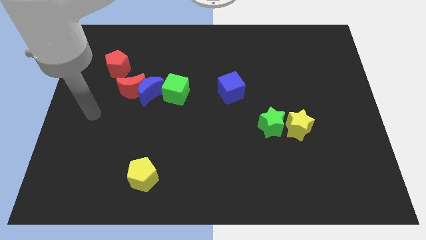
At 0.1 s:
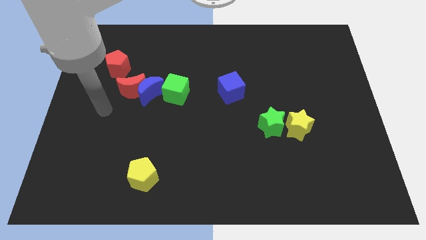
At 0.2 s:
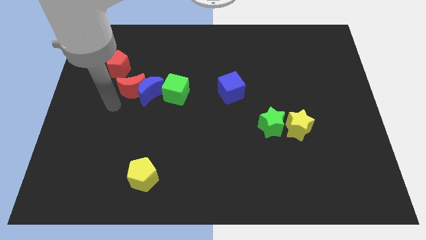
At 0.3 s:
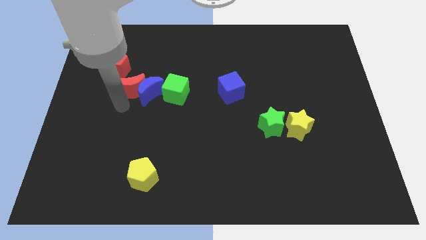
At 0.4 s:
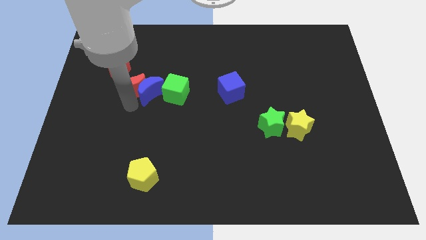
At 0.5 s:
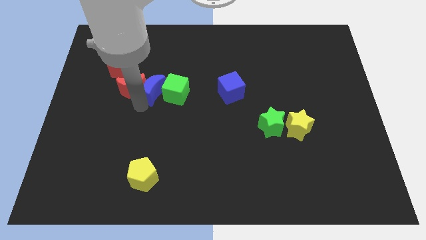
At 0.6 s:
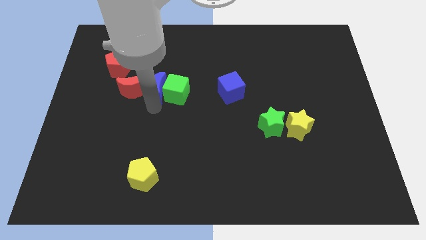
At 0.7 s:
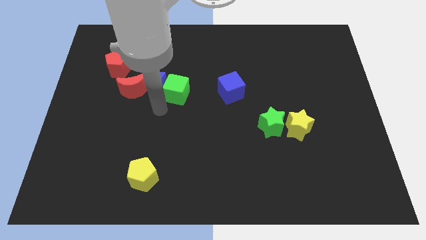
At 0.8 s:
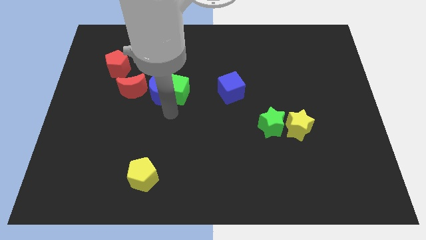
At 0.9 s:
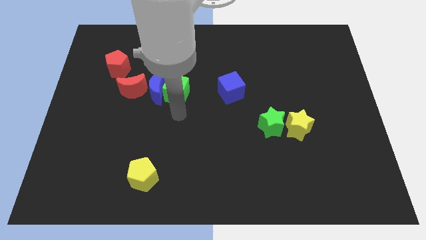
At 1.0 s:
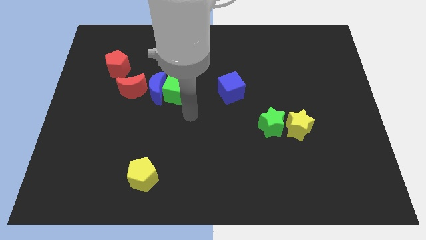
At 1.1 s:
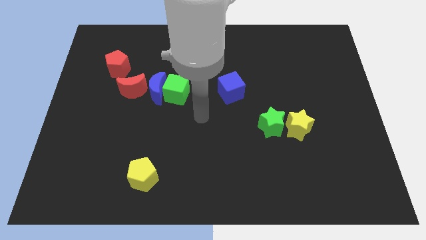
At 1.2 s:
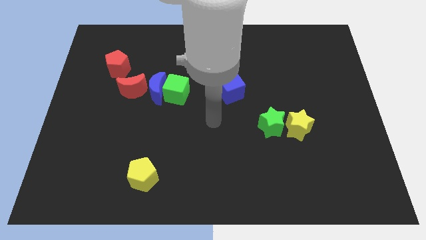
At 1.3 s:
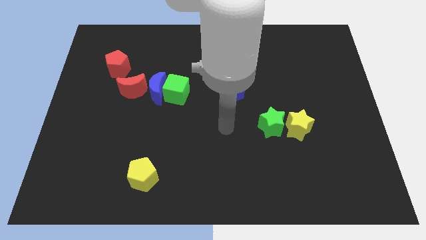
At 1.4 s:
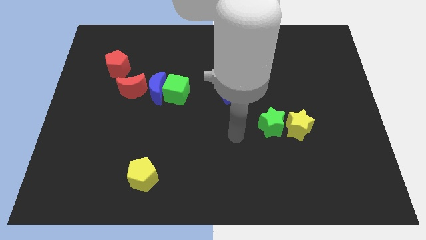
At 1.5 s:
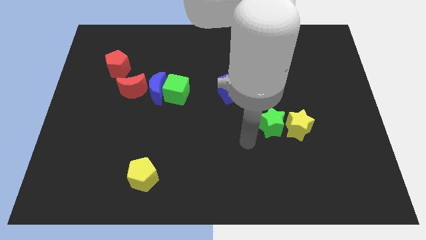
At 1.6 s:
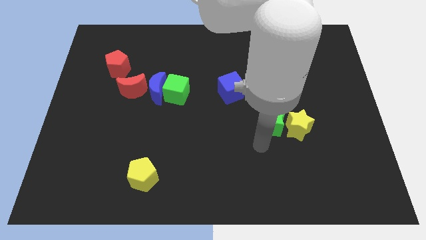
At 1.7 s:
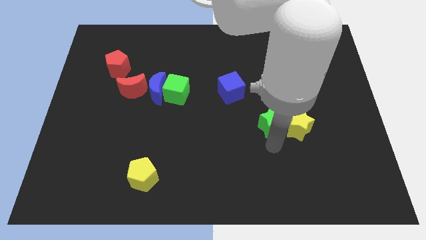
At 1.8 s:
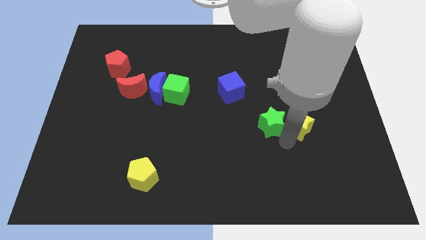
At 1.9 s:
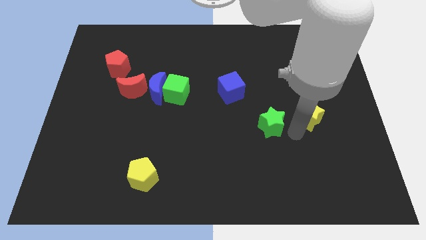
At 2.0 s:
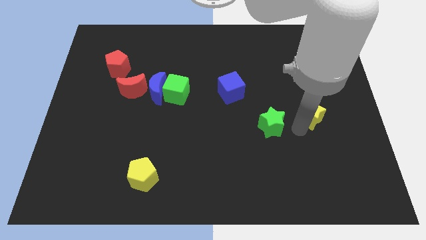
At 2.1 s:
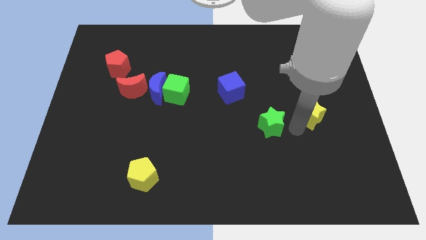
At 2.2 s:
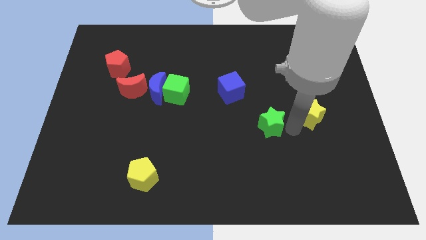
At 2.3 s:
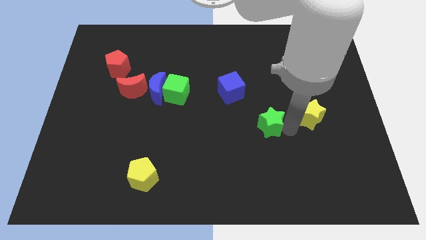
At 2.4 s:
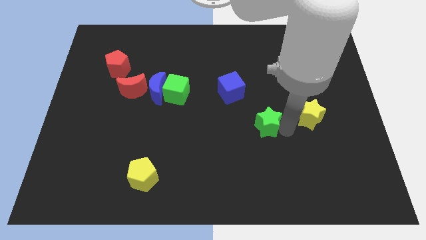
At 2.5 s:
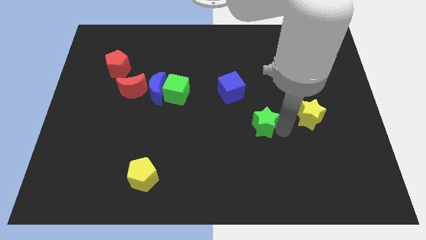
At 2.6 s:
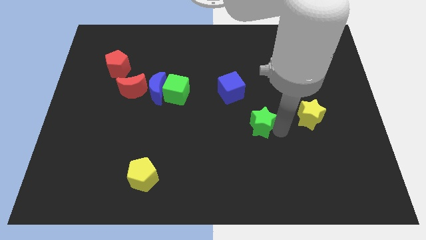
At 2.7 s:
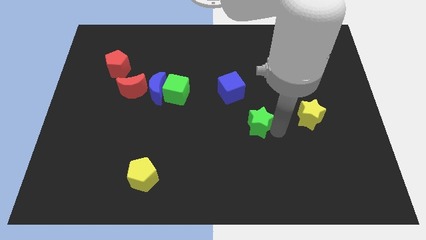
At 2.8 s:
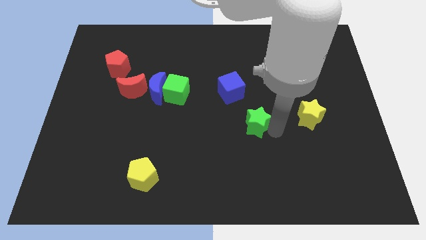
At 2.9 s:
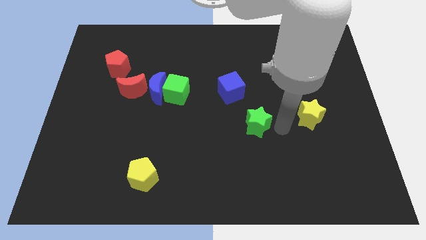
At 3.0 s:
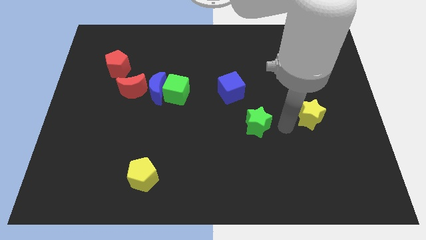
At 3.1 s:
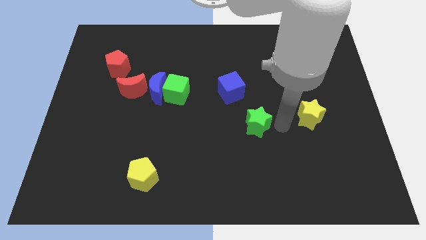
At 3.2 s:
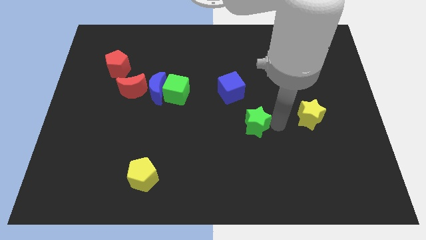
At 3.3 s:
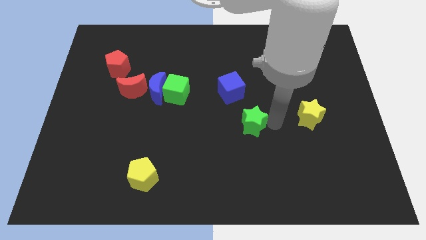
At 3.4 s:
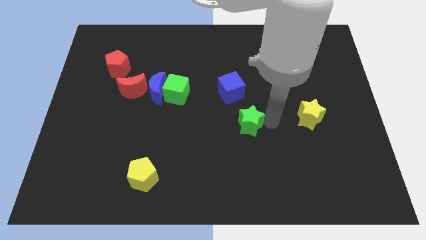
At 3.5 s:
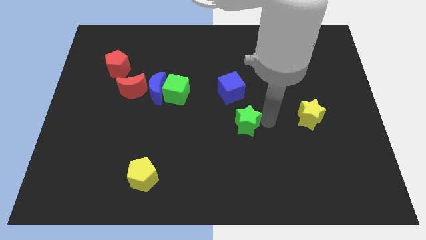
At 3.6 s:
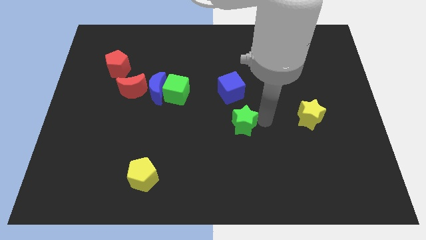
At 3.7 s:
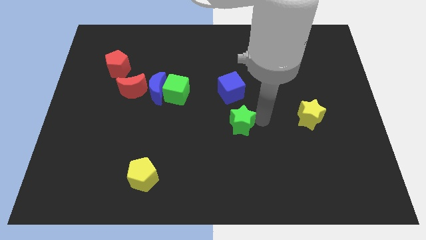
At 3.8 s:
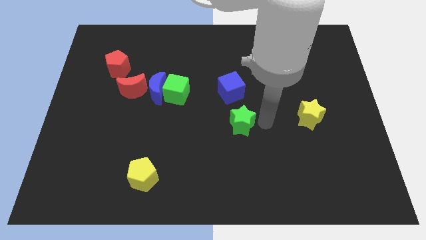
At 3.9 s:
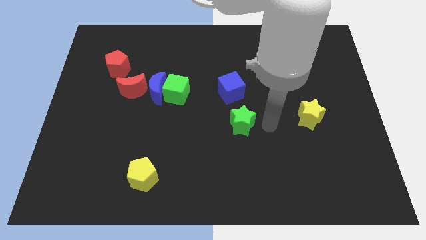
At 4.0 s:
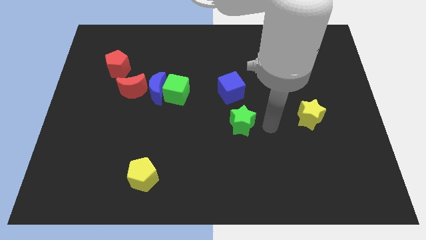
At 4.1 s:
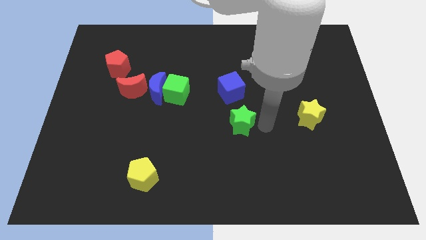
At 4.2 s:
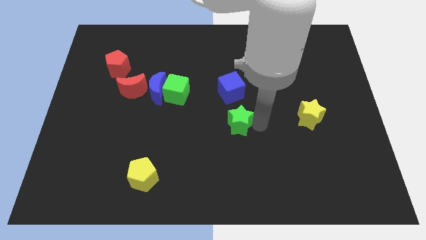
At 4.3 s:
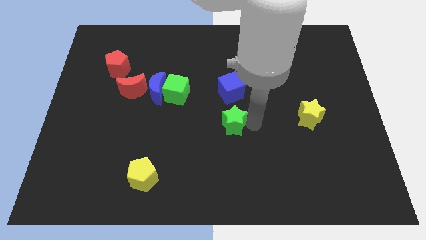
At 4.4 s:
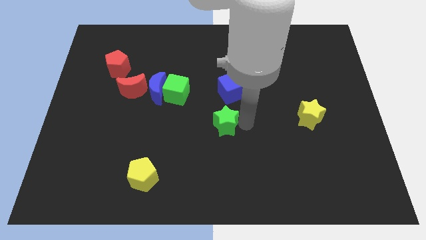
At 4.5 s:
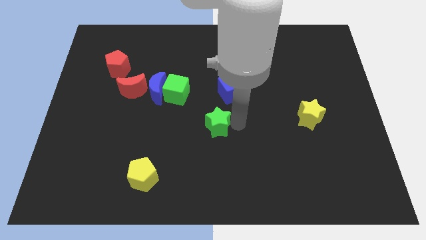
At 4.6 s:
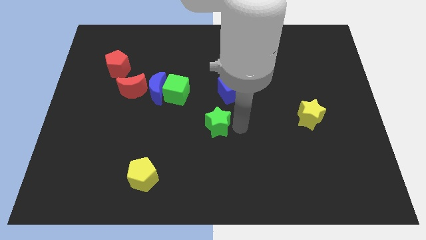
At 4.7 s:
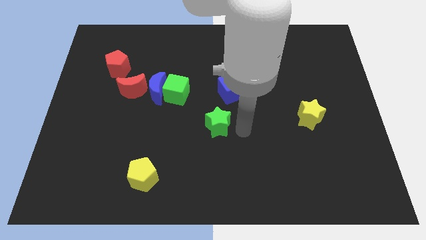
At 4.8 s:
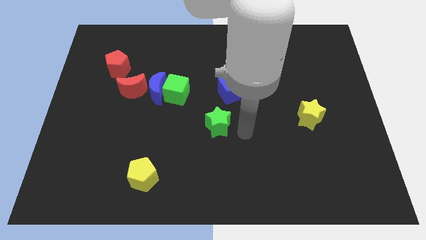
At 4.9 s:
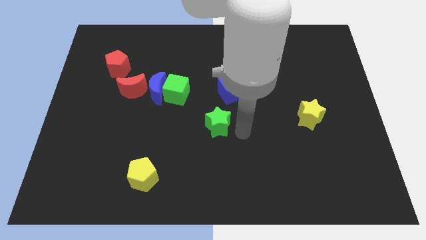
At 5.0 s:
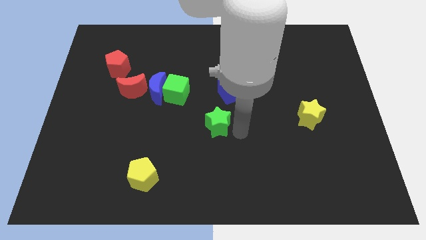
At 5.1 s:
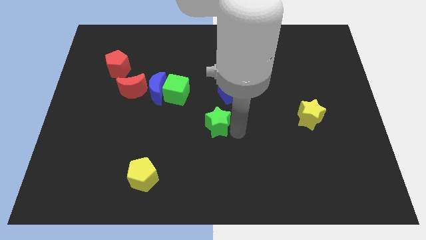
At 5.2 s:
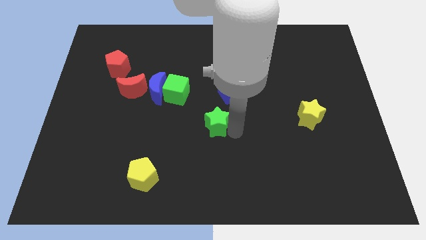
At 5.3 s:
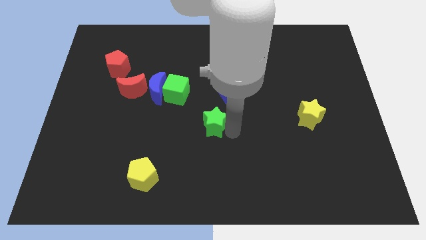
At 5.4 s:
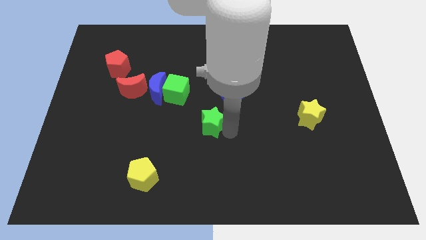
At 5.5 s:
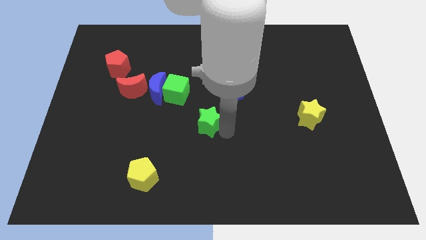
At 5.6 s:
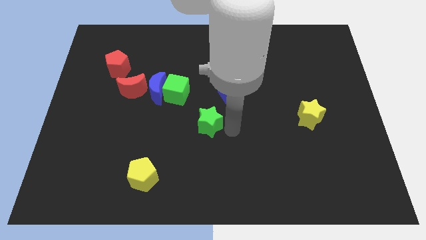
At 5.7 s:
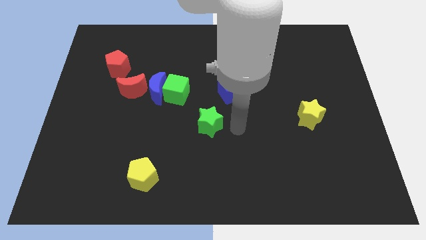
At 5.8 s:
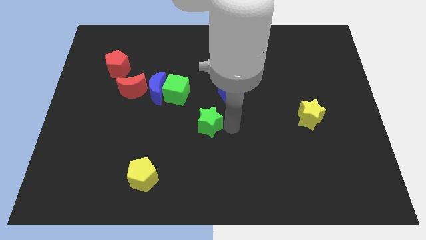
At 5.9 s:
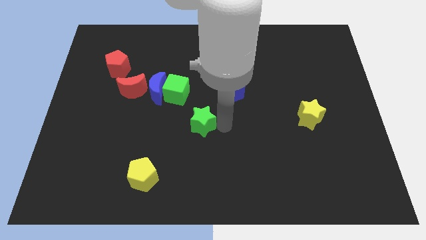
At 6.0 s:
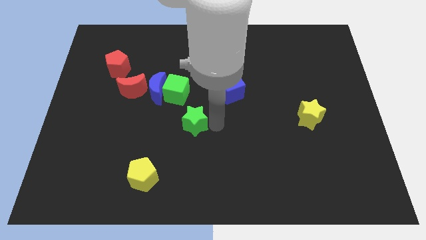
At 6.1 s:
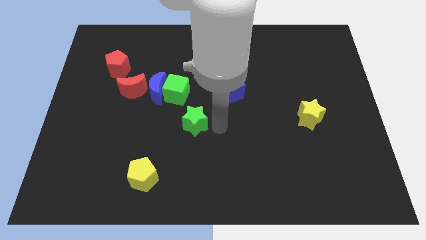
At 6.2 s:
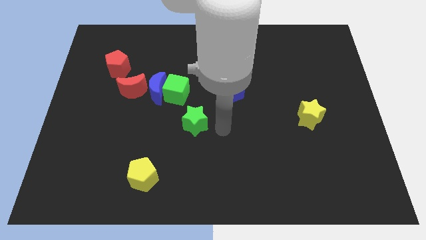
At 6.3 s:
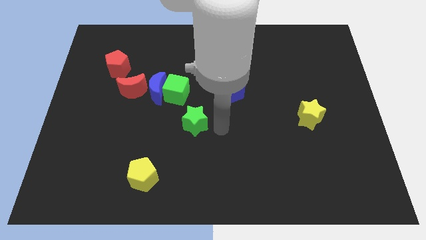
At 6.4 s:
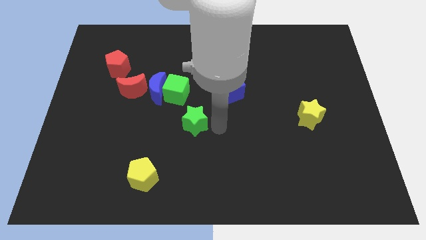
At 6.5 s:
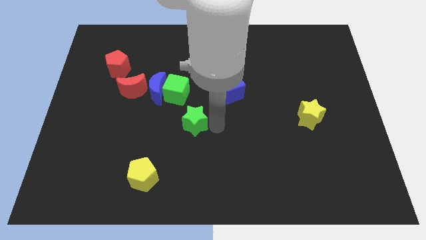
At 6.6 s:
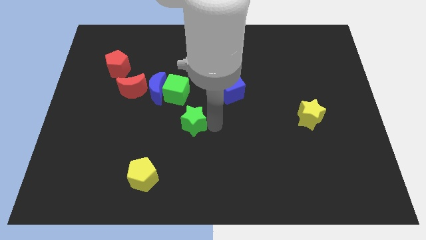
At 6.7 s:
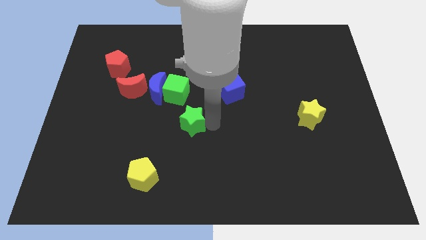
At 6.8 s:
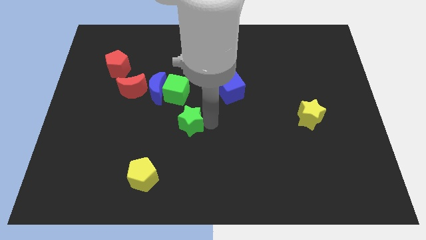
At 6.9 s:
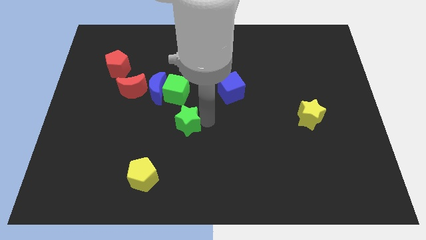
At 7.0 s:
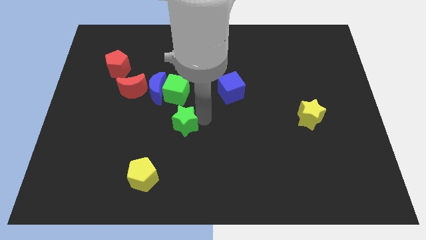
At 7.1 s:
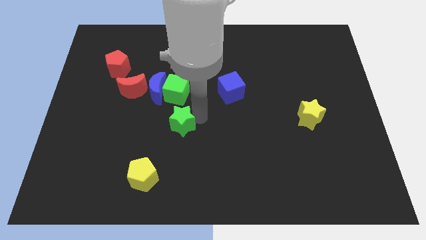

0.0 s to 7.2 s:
push the green star left

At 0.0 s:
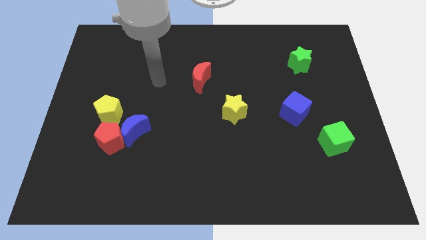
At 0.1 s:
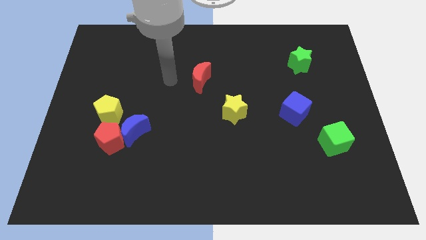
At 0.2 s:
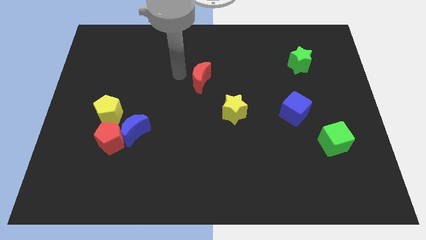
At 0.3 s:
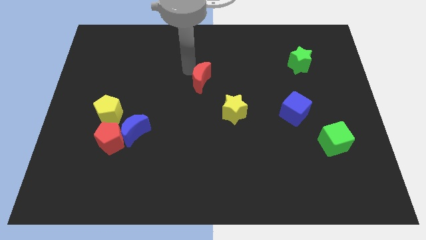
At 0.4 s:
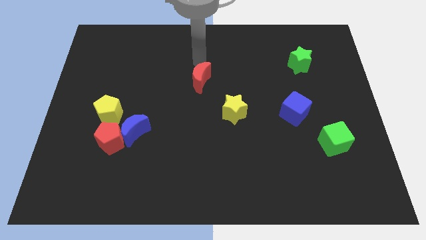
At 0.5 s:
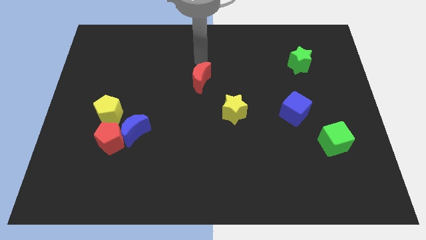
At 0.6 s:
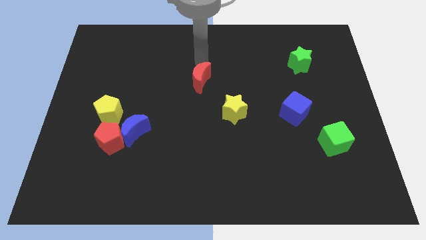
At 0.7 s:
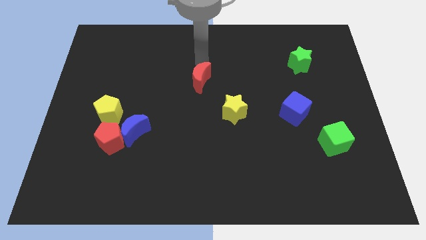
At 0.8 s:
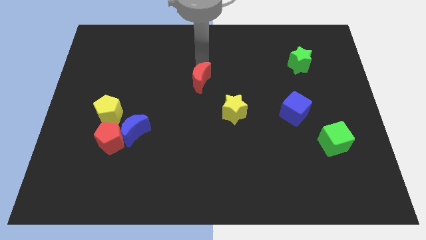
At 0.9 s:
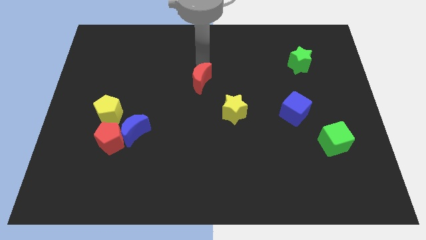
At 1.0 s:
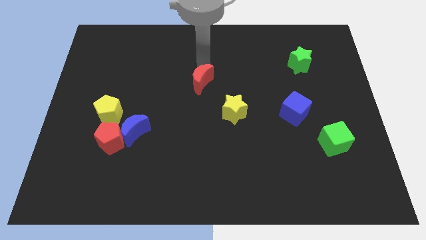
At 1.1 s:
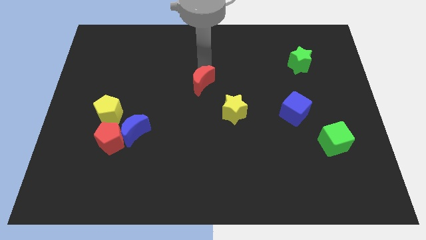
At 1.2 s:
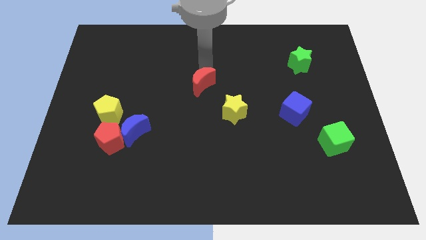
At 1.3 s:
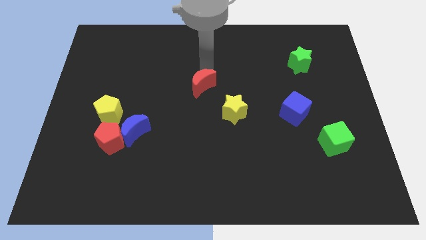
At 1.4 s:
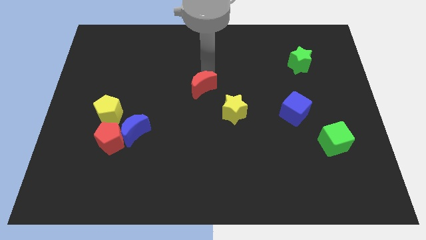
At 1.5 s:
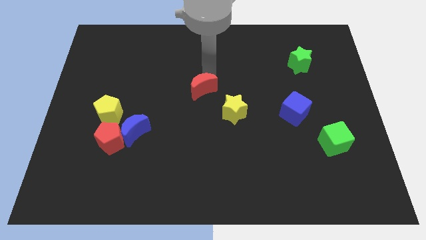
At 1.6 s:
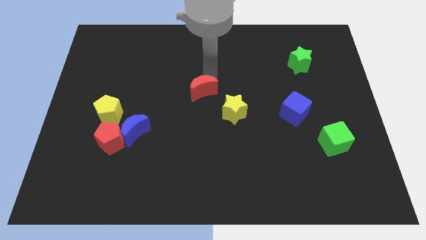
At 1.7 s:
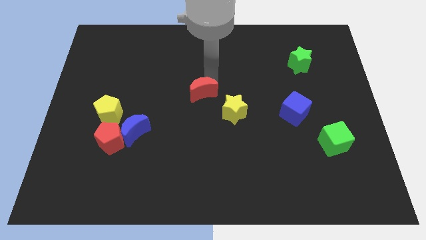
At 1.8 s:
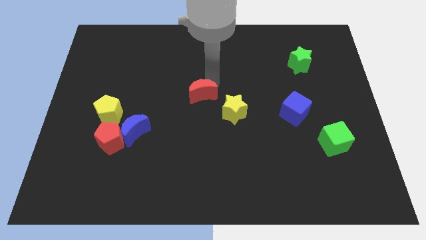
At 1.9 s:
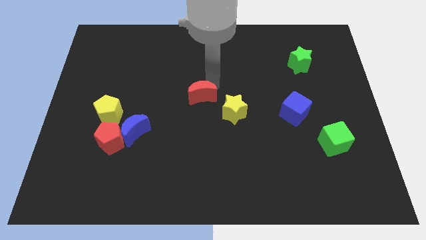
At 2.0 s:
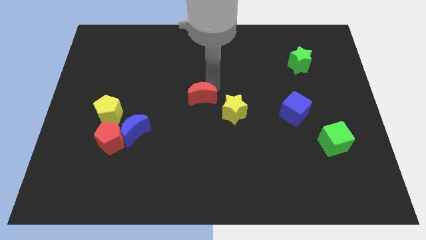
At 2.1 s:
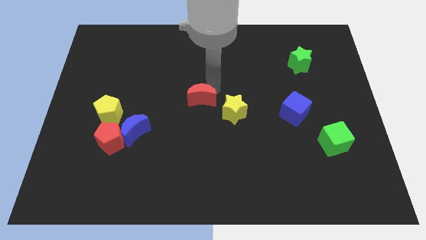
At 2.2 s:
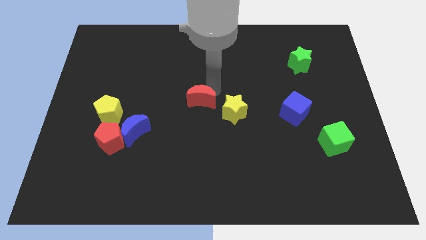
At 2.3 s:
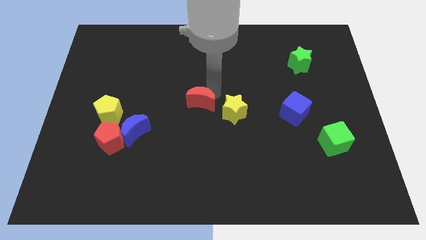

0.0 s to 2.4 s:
move the red moon down somewhat
